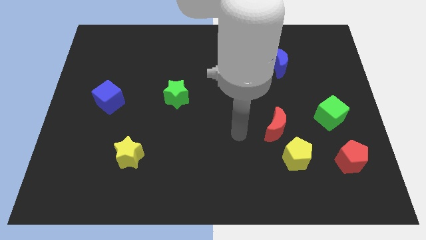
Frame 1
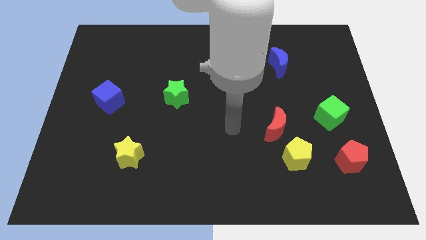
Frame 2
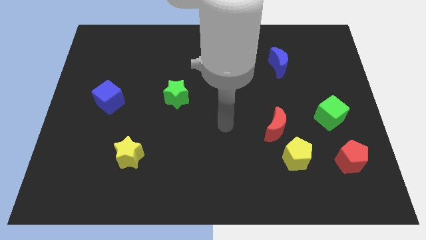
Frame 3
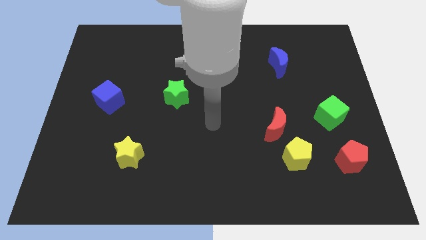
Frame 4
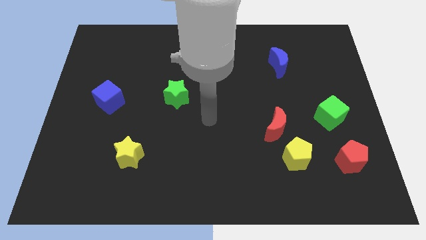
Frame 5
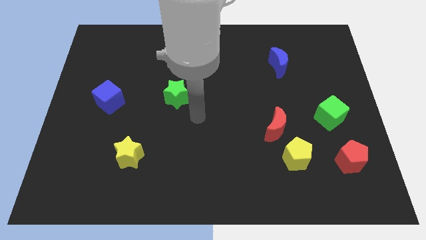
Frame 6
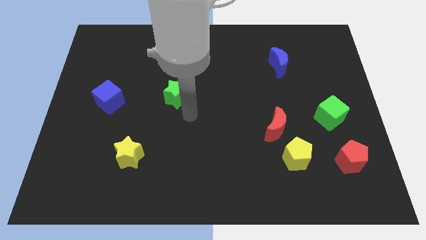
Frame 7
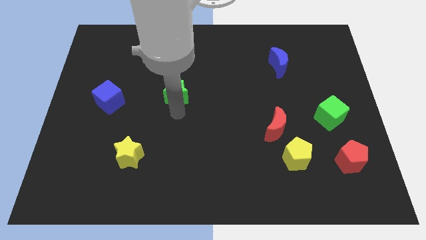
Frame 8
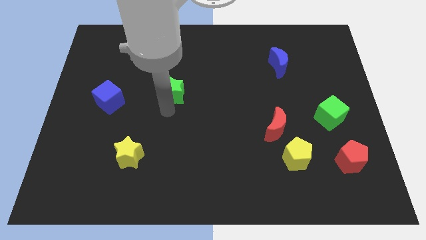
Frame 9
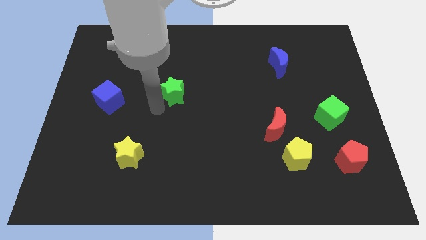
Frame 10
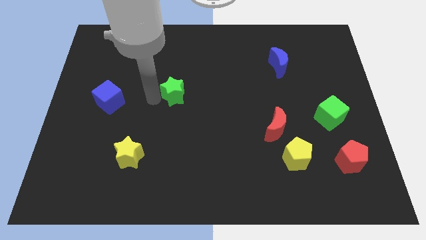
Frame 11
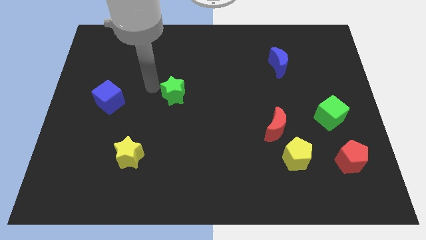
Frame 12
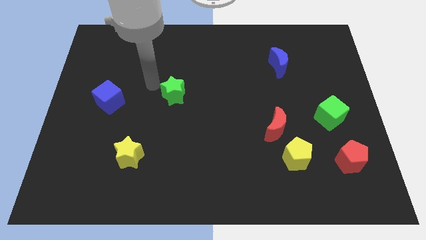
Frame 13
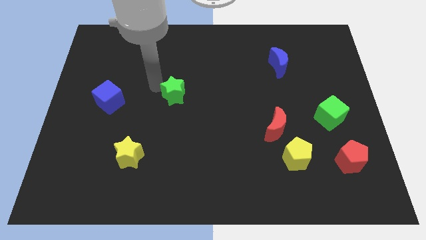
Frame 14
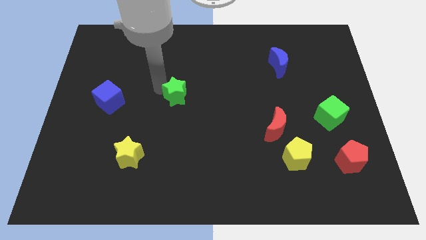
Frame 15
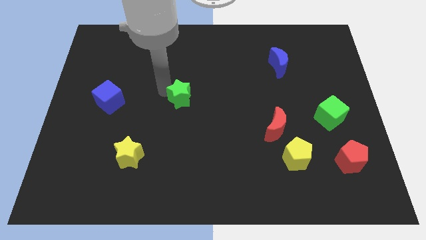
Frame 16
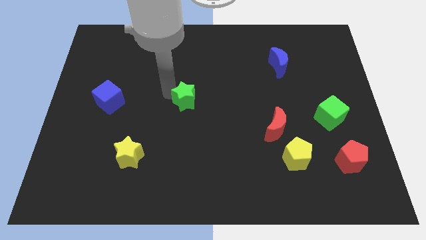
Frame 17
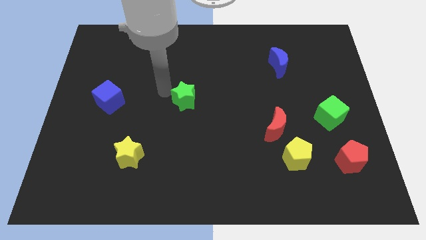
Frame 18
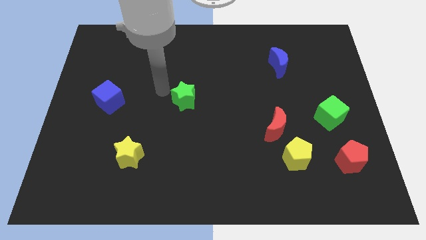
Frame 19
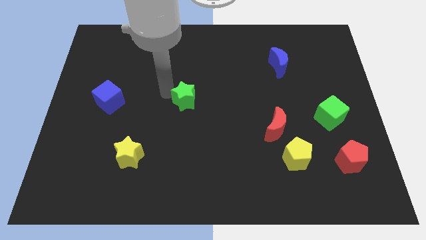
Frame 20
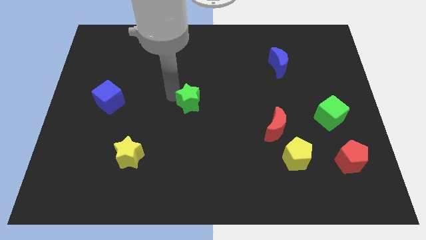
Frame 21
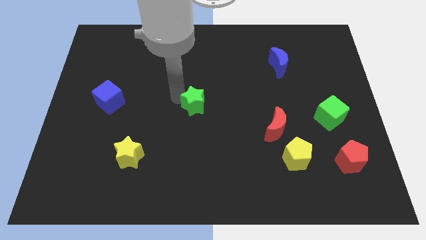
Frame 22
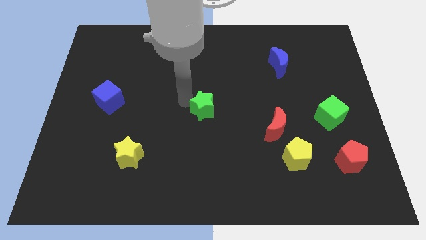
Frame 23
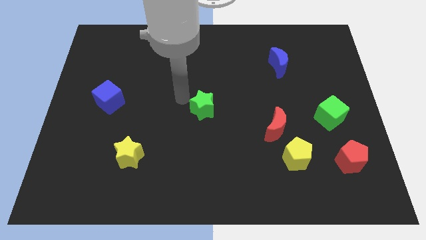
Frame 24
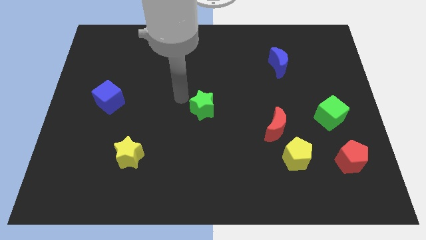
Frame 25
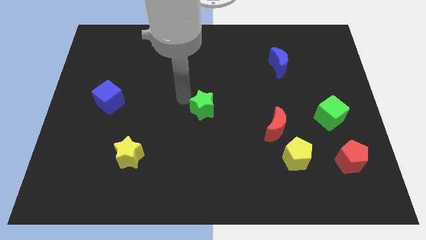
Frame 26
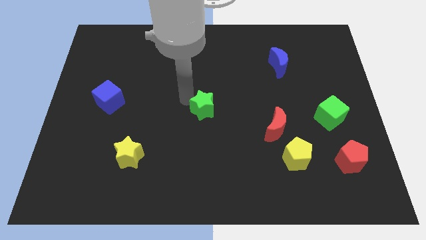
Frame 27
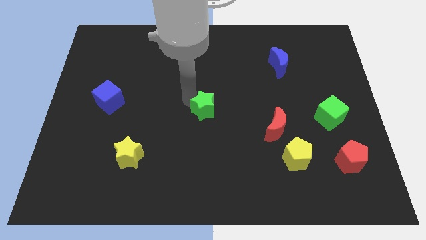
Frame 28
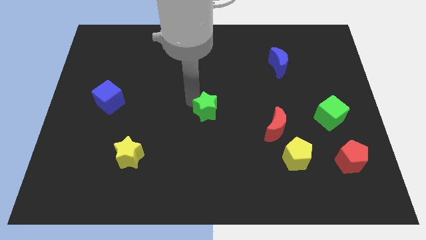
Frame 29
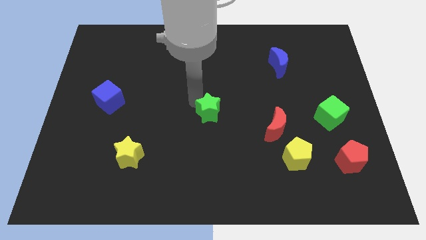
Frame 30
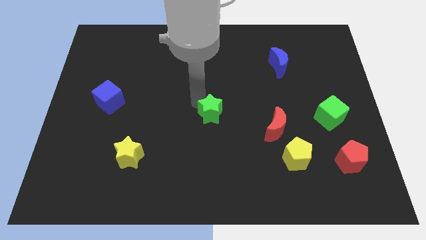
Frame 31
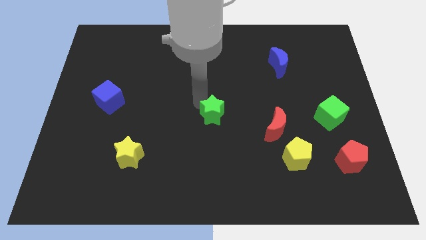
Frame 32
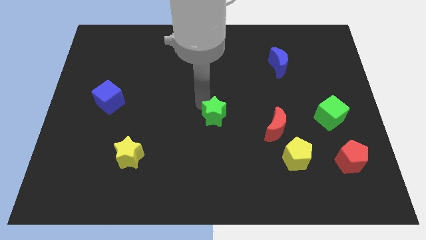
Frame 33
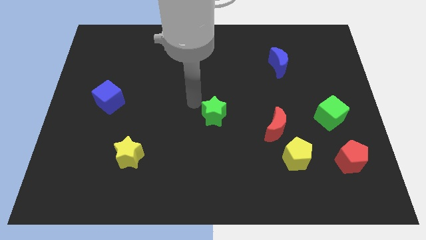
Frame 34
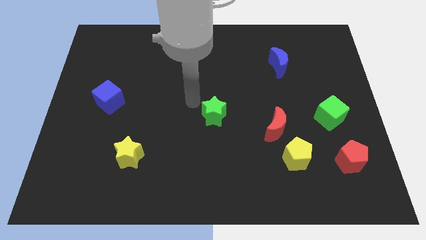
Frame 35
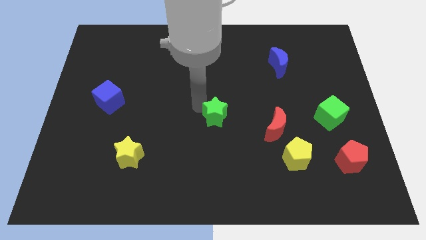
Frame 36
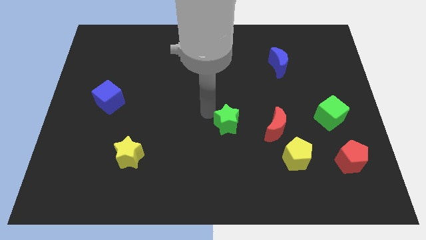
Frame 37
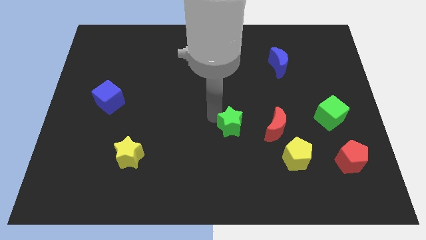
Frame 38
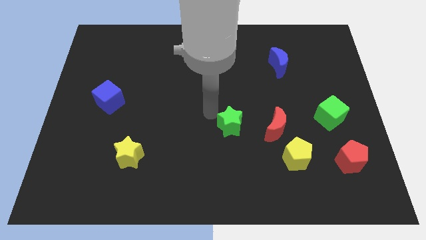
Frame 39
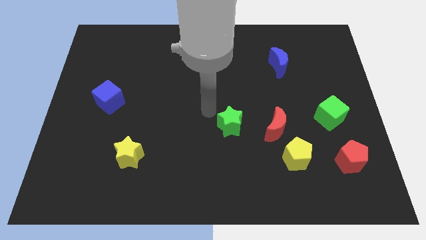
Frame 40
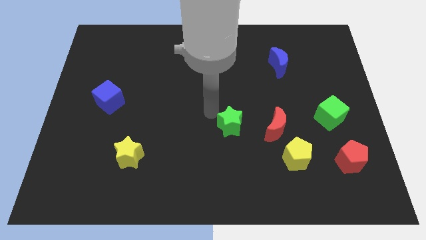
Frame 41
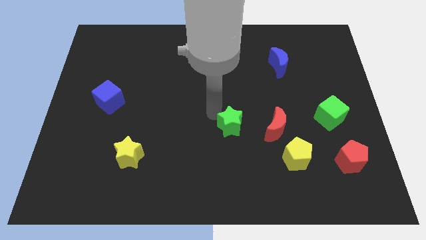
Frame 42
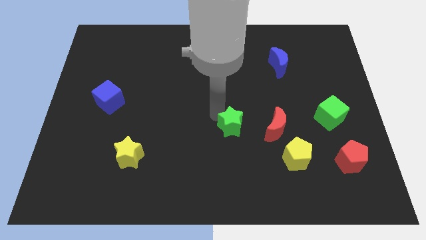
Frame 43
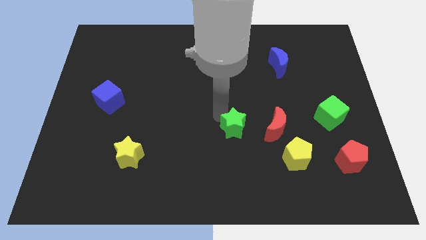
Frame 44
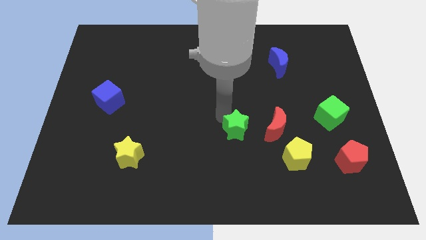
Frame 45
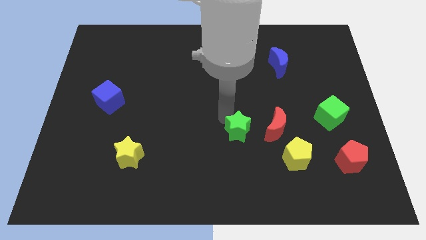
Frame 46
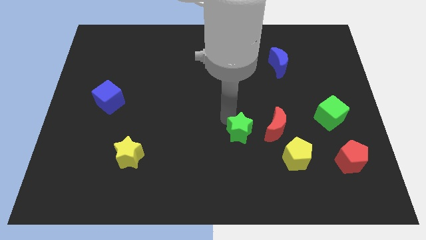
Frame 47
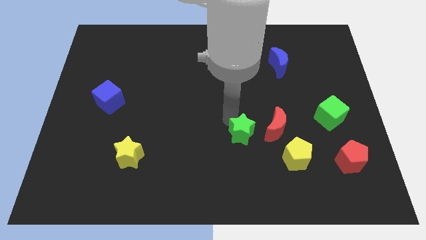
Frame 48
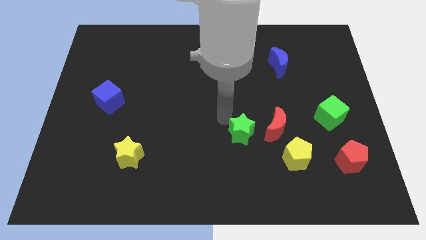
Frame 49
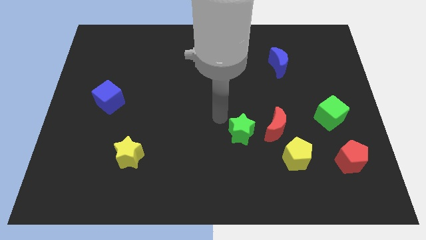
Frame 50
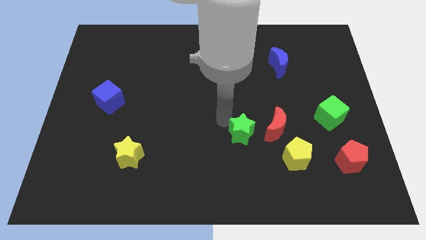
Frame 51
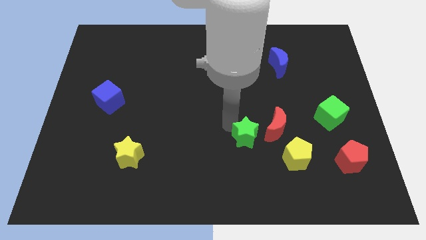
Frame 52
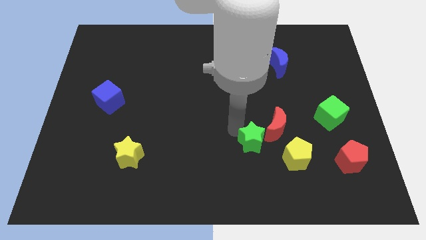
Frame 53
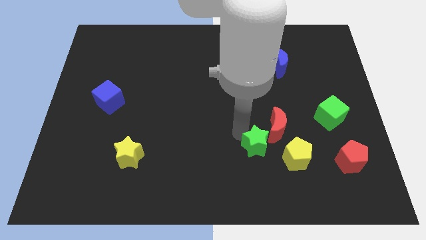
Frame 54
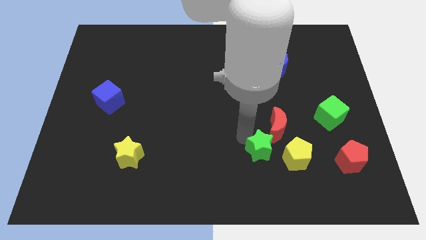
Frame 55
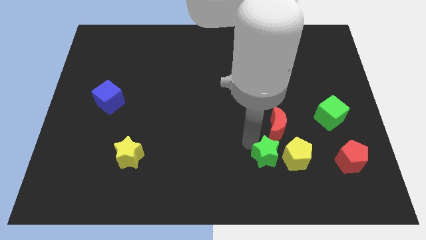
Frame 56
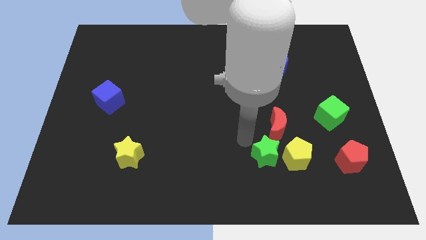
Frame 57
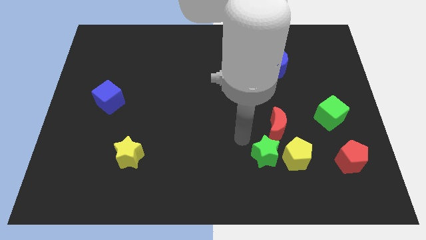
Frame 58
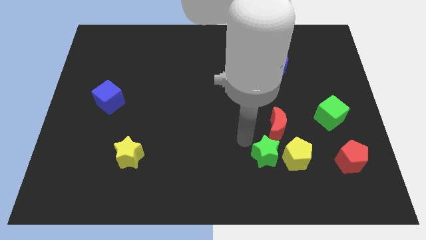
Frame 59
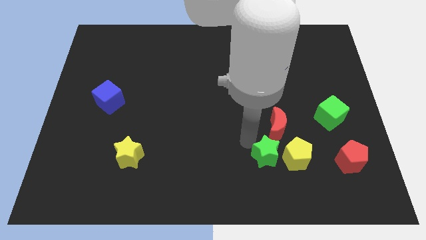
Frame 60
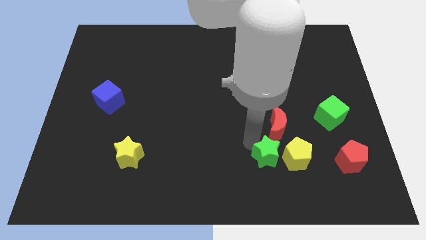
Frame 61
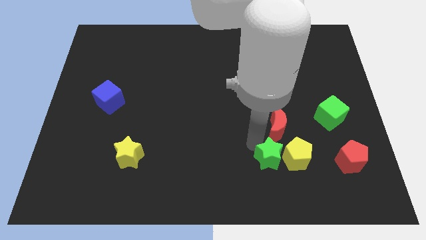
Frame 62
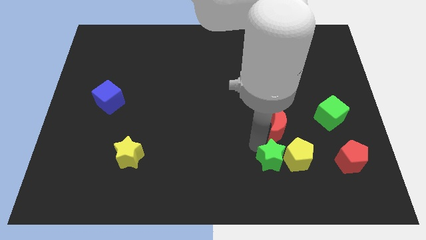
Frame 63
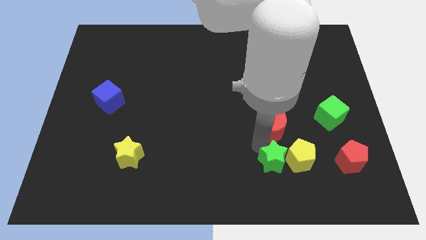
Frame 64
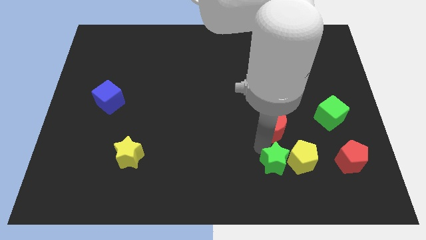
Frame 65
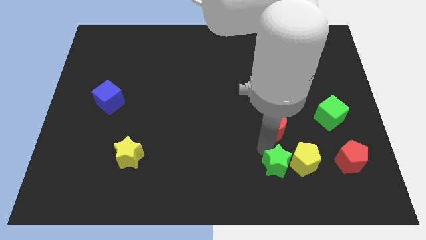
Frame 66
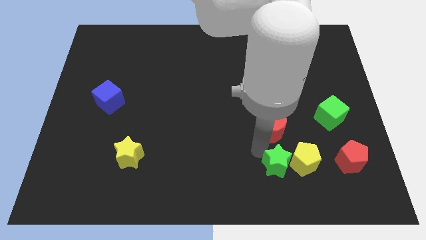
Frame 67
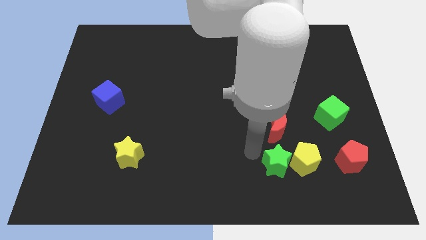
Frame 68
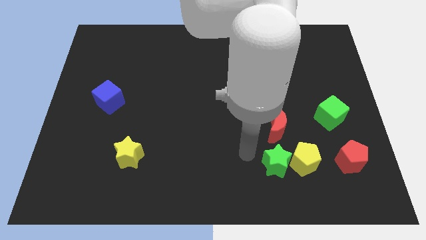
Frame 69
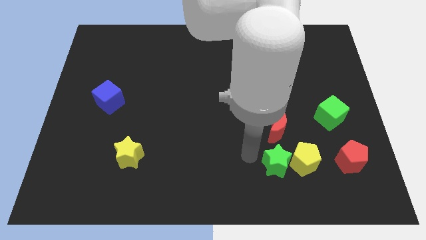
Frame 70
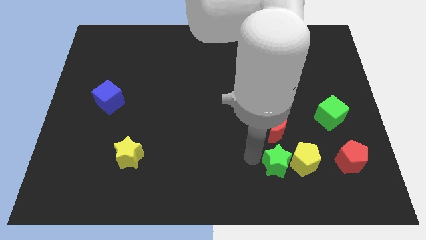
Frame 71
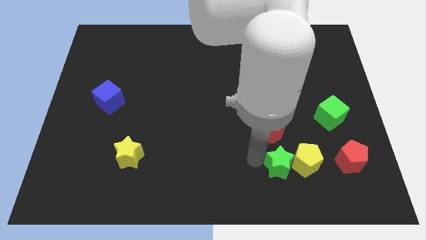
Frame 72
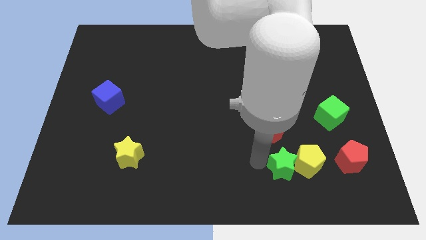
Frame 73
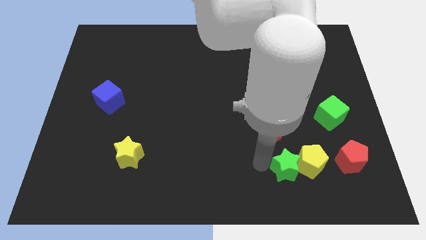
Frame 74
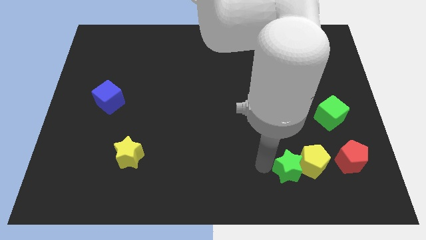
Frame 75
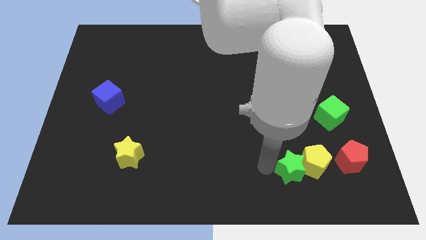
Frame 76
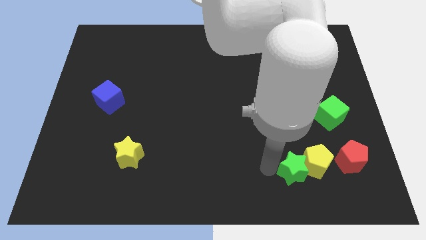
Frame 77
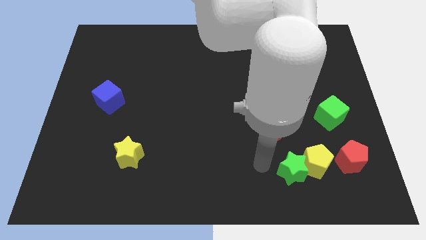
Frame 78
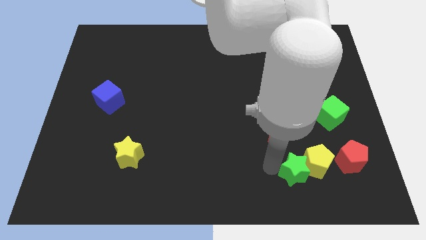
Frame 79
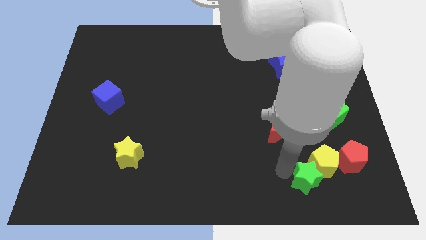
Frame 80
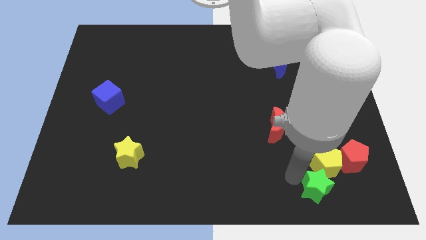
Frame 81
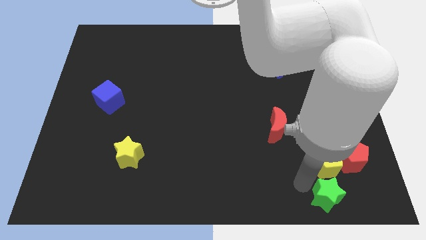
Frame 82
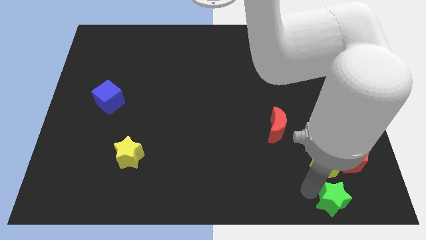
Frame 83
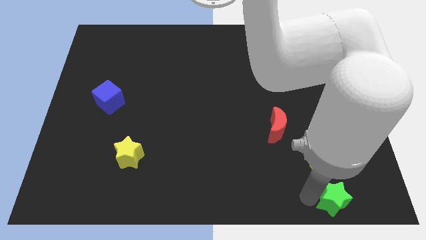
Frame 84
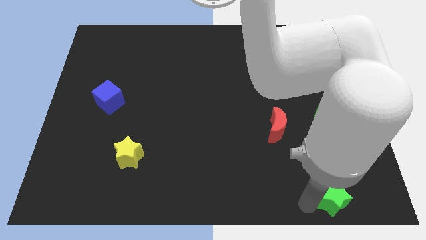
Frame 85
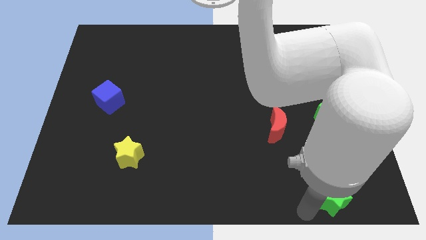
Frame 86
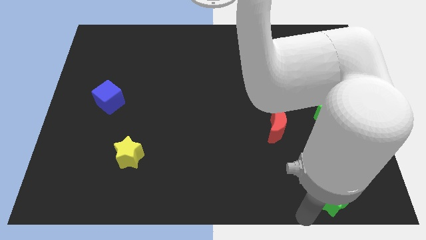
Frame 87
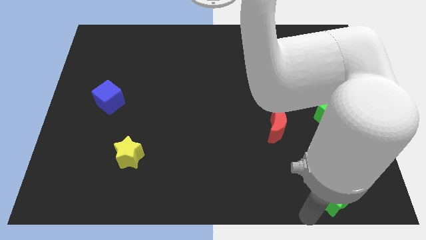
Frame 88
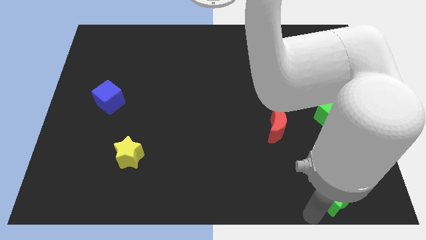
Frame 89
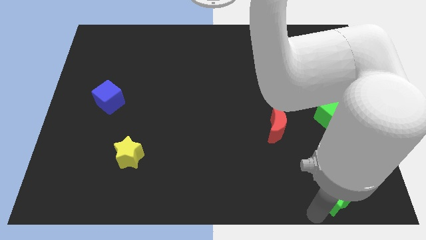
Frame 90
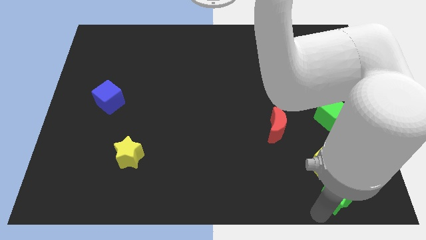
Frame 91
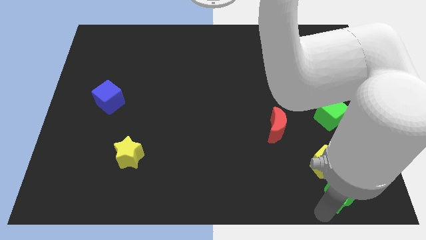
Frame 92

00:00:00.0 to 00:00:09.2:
put the green star to the bottom right of the yellow pentagon
